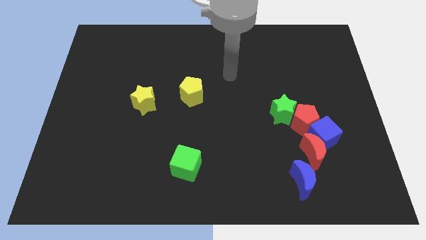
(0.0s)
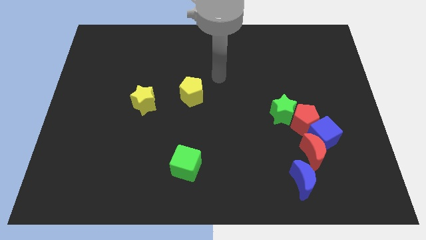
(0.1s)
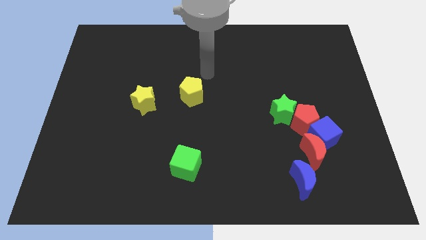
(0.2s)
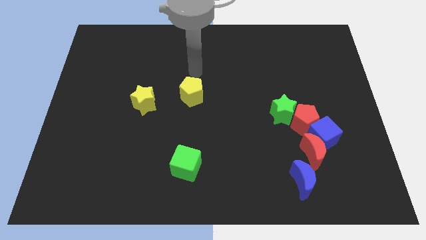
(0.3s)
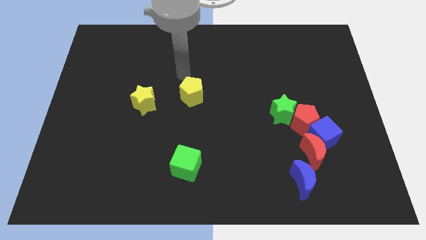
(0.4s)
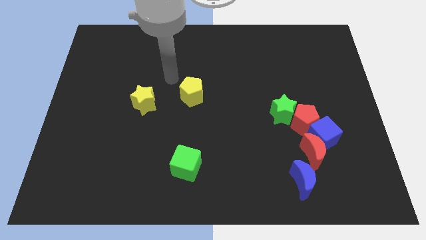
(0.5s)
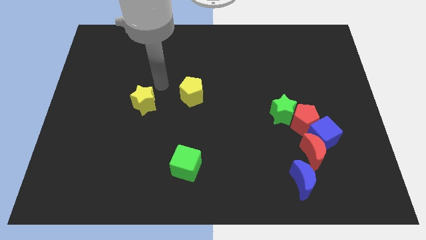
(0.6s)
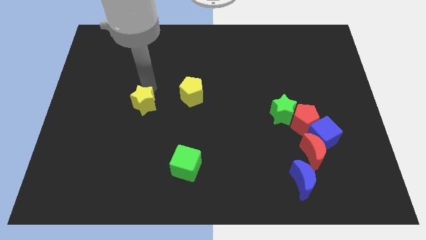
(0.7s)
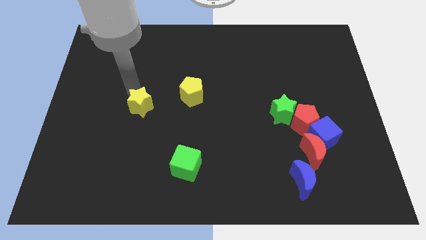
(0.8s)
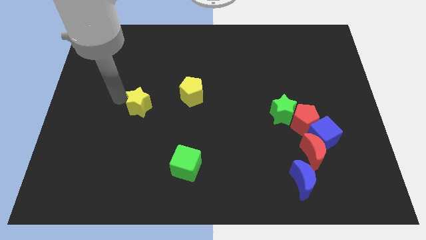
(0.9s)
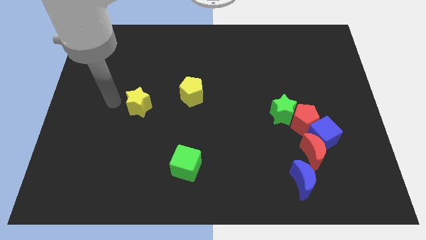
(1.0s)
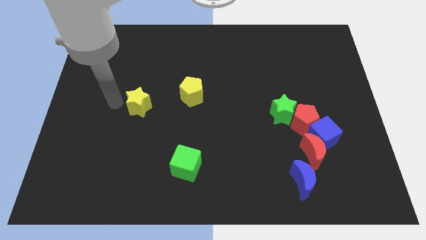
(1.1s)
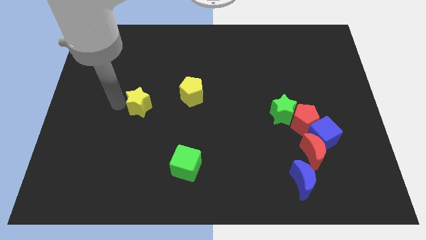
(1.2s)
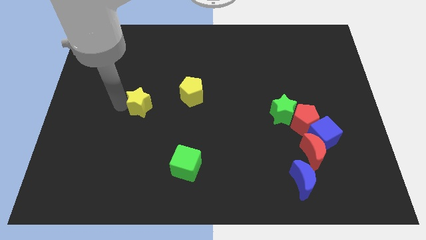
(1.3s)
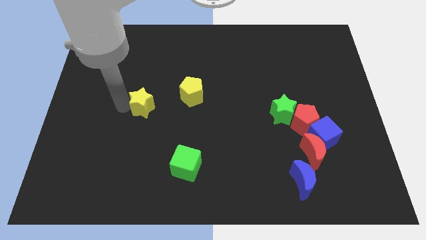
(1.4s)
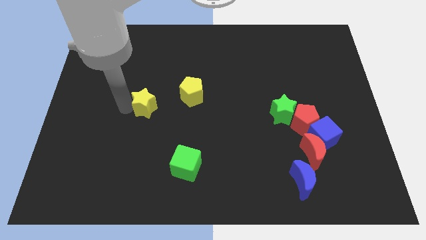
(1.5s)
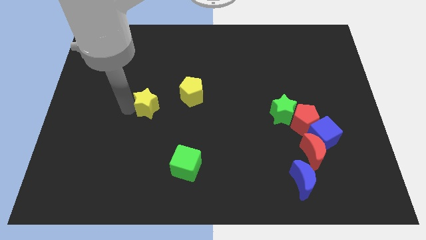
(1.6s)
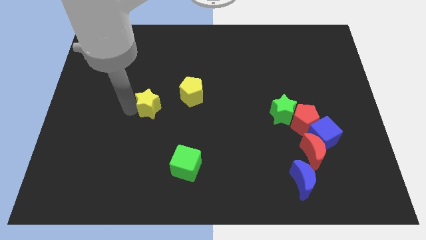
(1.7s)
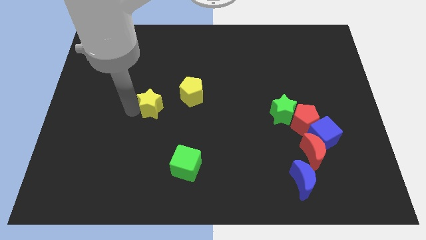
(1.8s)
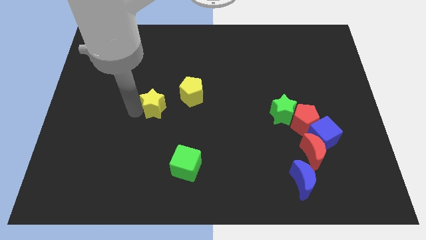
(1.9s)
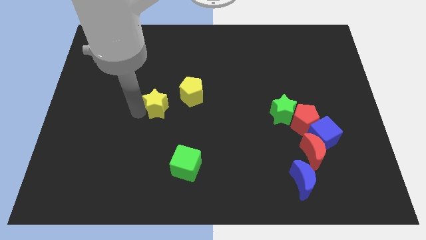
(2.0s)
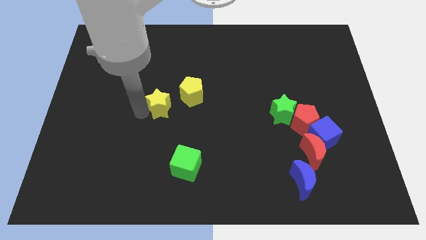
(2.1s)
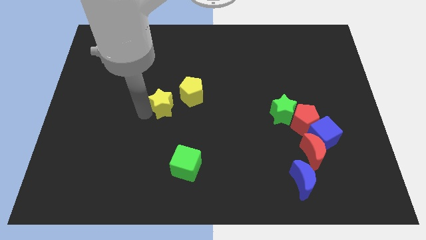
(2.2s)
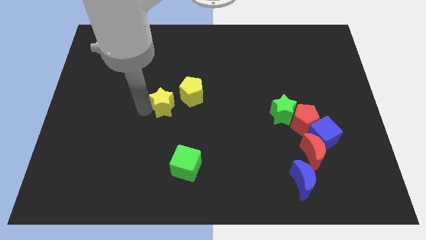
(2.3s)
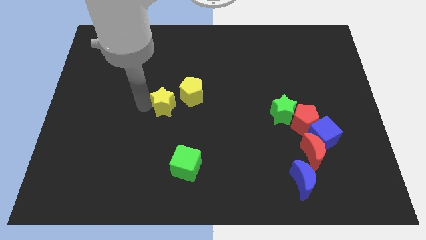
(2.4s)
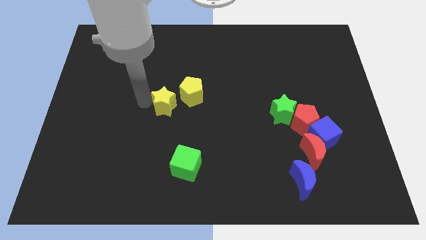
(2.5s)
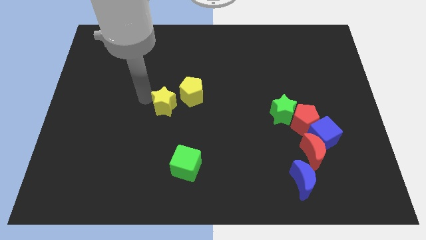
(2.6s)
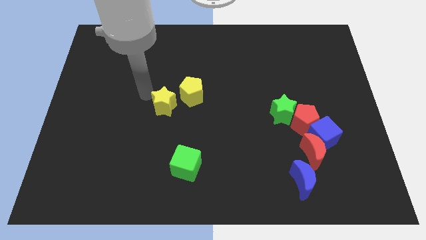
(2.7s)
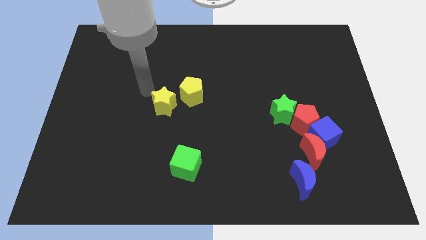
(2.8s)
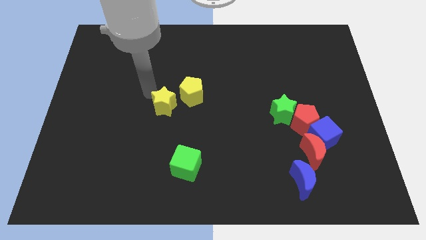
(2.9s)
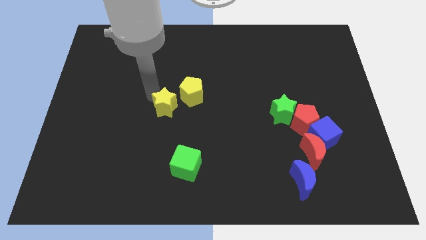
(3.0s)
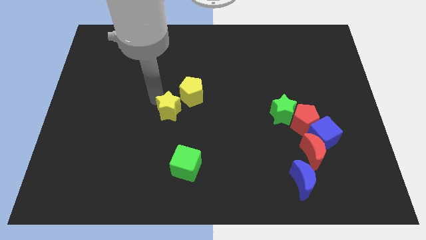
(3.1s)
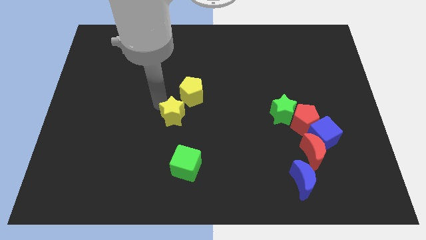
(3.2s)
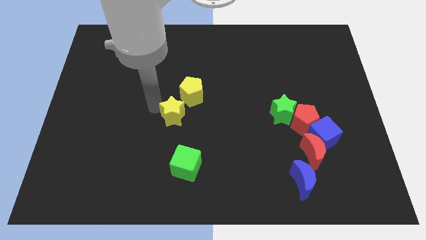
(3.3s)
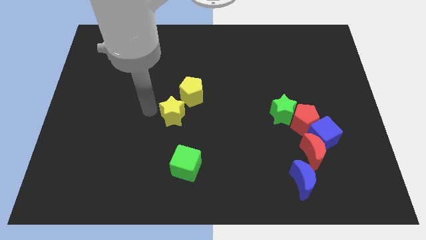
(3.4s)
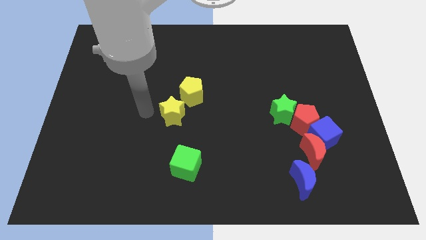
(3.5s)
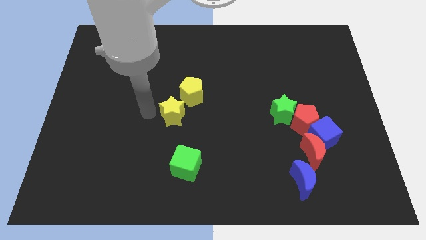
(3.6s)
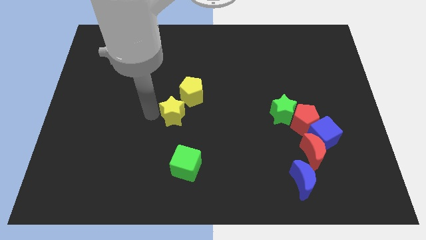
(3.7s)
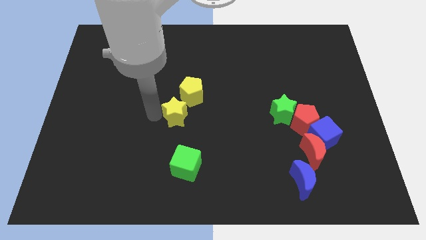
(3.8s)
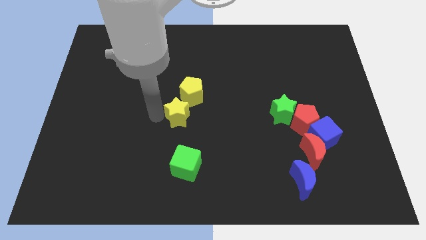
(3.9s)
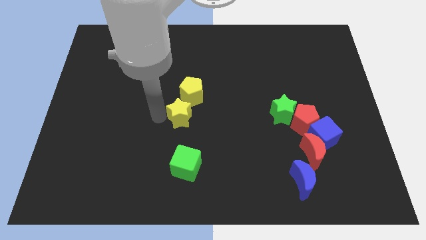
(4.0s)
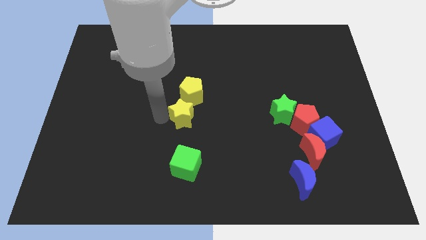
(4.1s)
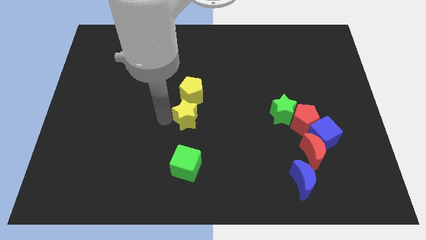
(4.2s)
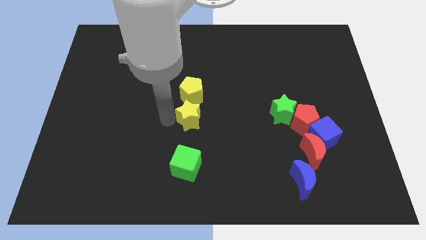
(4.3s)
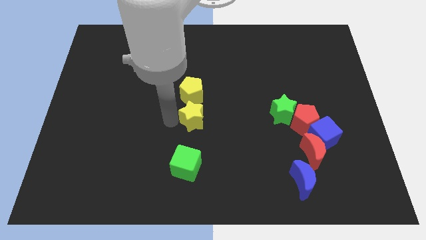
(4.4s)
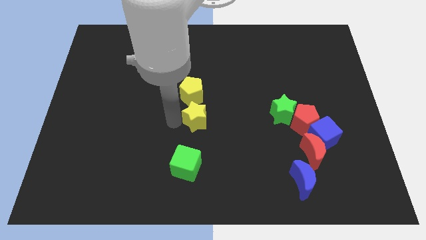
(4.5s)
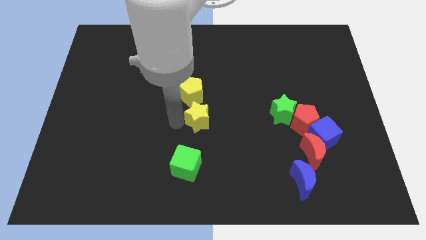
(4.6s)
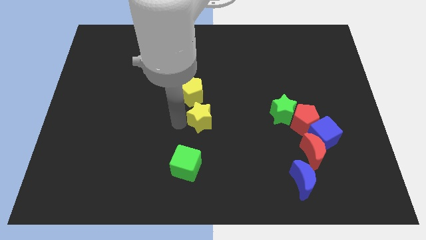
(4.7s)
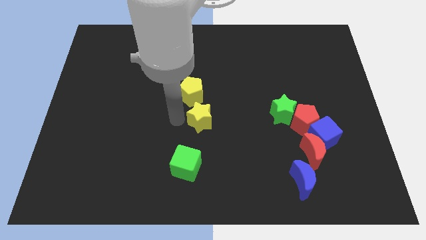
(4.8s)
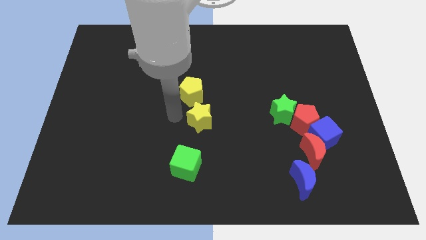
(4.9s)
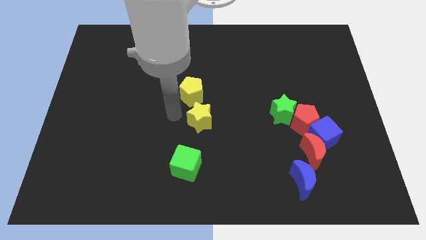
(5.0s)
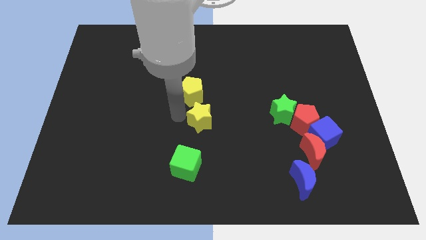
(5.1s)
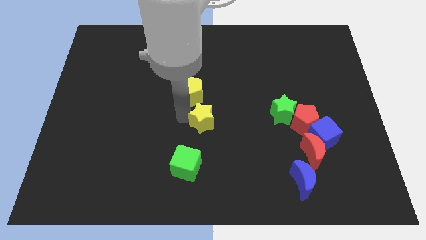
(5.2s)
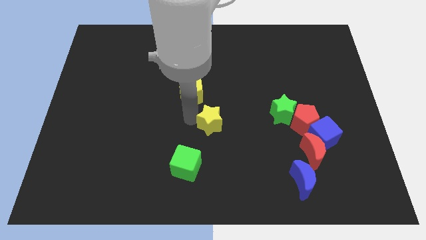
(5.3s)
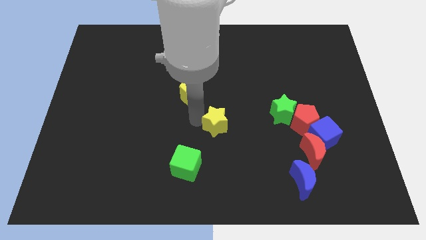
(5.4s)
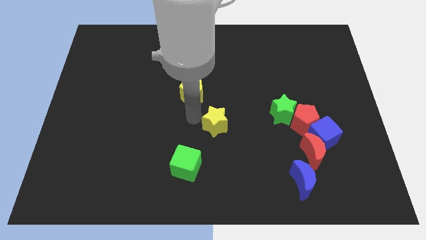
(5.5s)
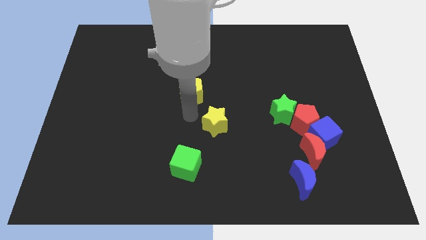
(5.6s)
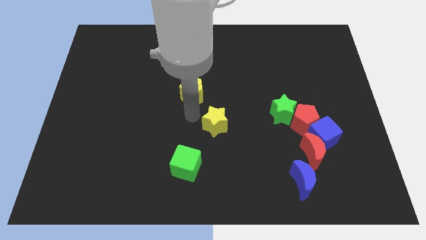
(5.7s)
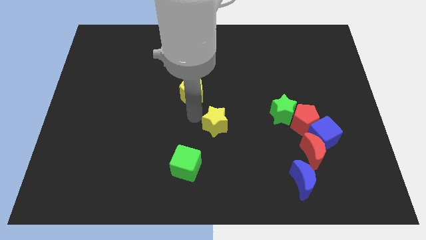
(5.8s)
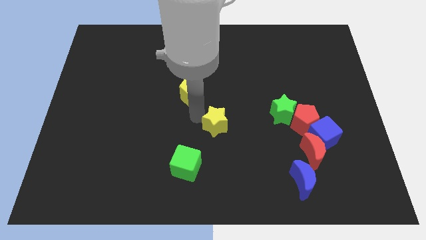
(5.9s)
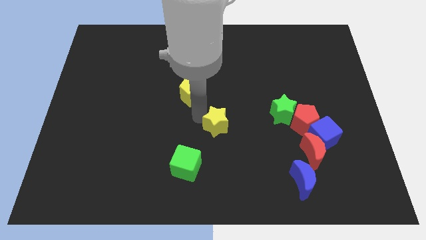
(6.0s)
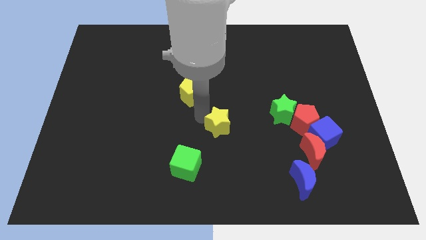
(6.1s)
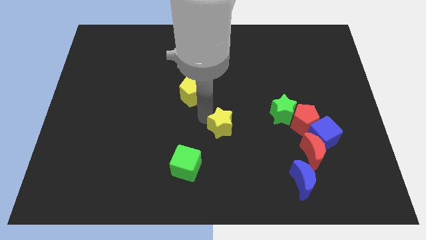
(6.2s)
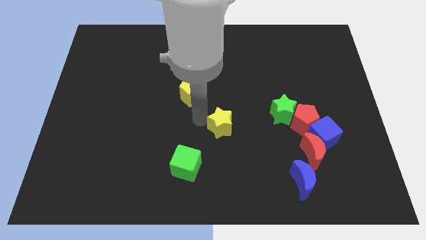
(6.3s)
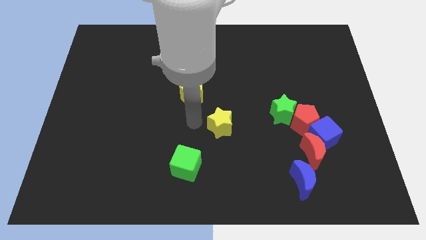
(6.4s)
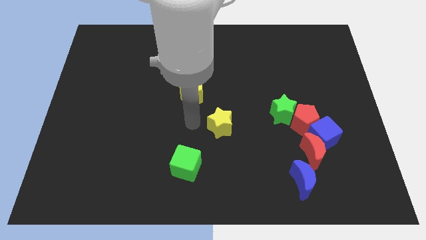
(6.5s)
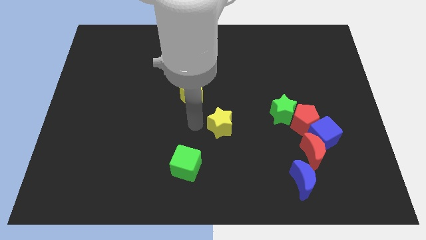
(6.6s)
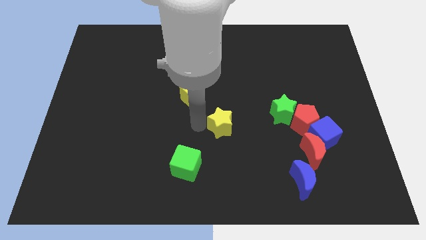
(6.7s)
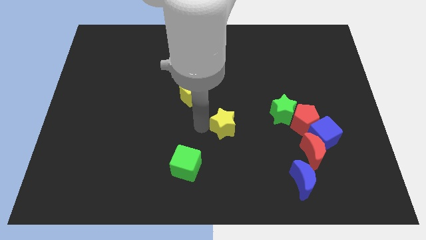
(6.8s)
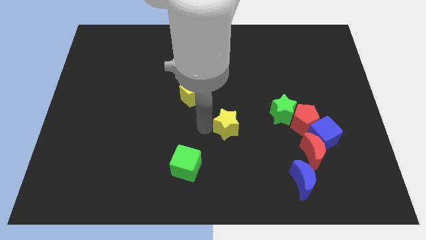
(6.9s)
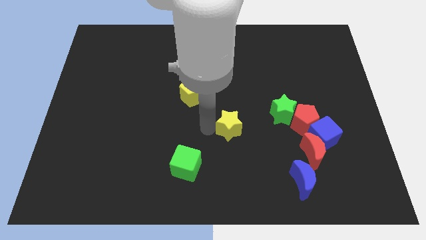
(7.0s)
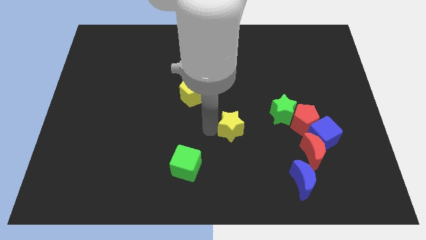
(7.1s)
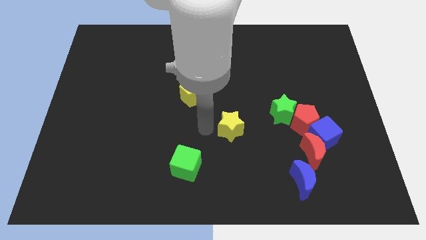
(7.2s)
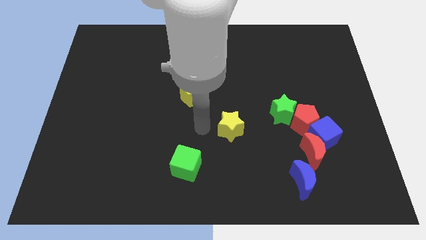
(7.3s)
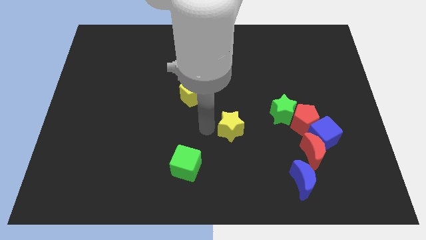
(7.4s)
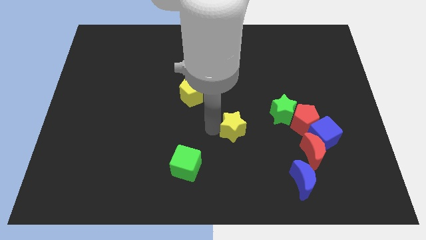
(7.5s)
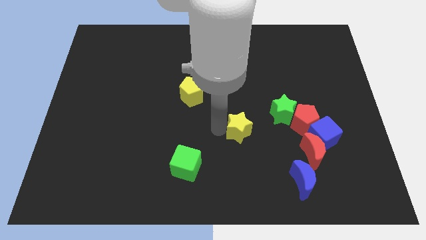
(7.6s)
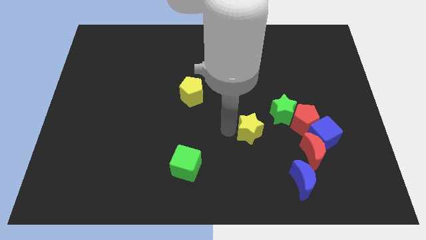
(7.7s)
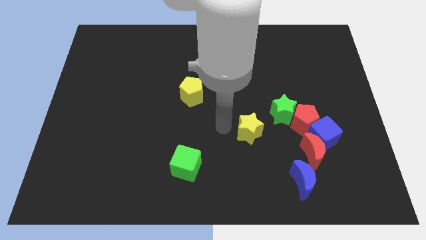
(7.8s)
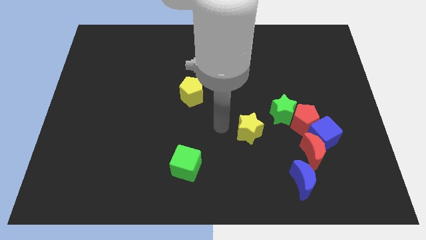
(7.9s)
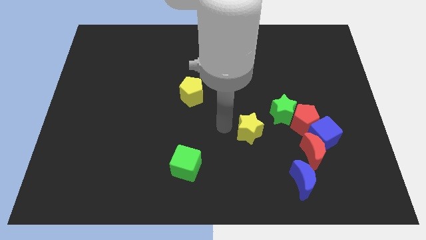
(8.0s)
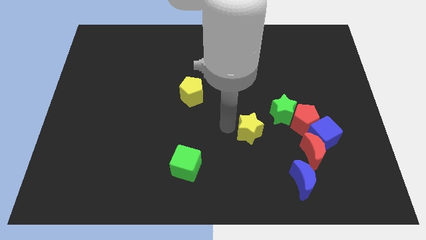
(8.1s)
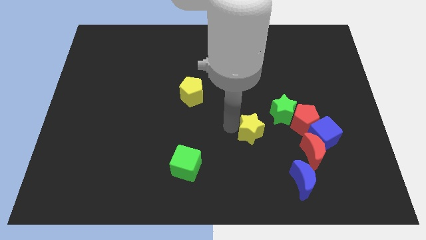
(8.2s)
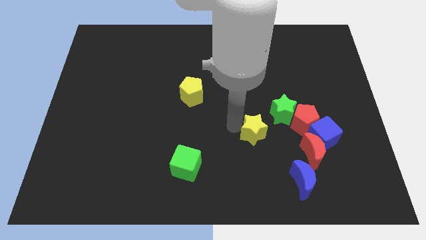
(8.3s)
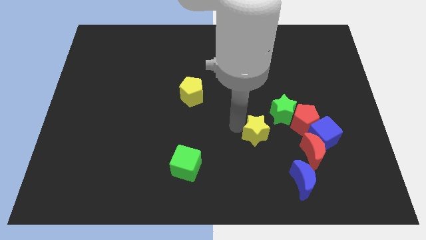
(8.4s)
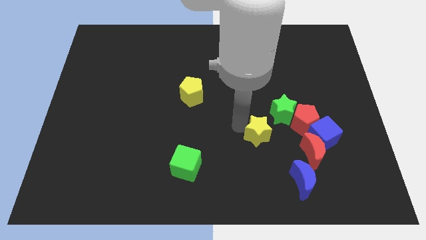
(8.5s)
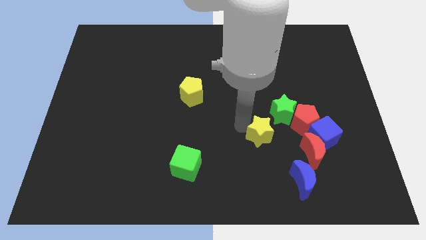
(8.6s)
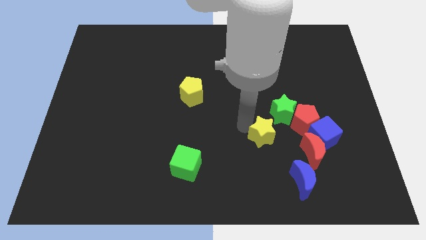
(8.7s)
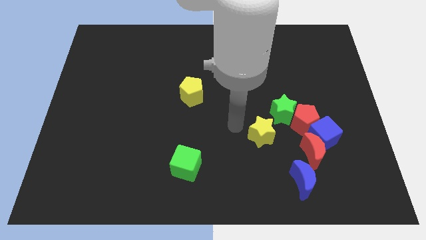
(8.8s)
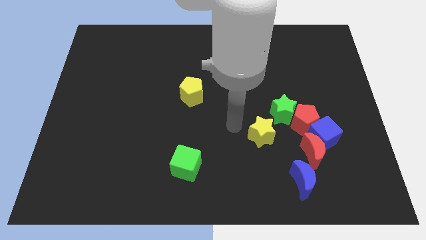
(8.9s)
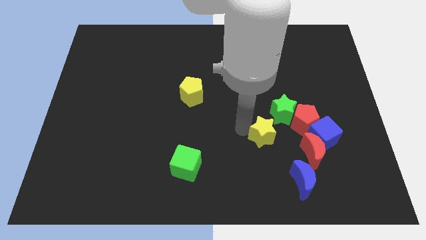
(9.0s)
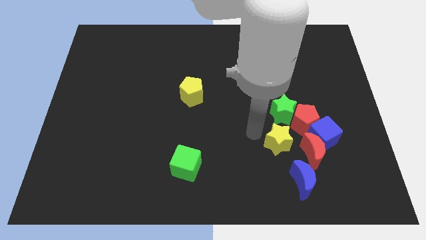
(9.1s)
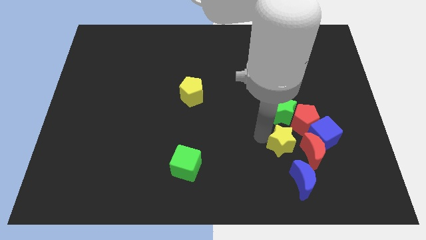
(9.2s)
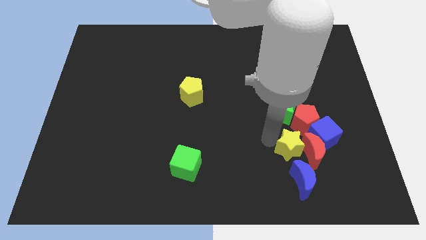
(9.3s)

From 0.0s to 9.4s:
move the yellow star next to the red moon
